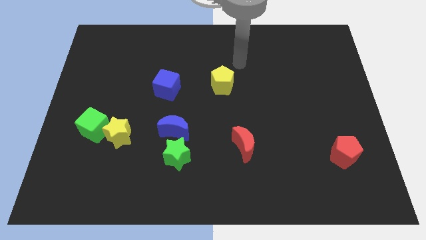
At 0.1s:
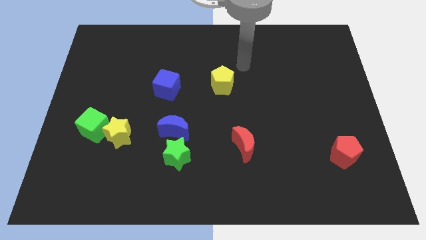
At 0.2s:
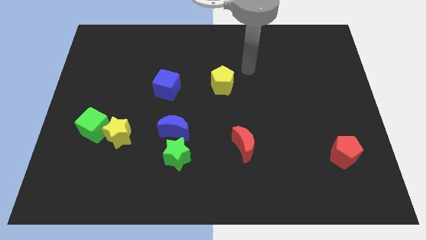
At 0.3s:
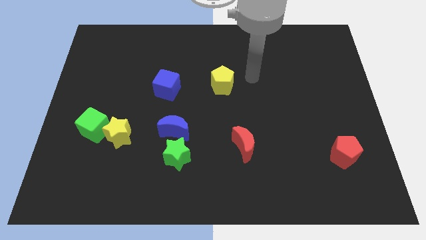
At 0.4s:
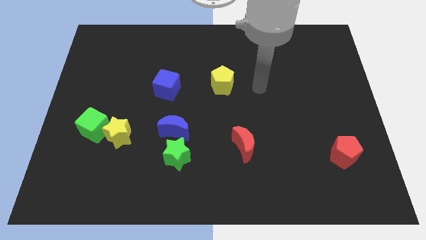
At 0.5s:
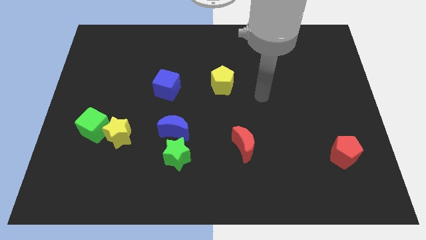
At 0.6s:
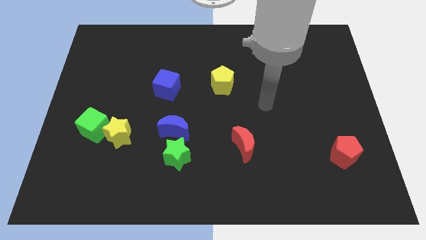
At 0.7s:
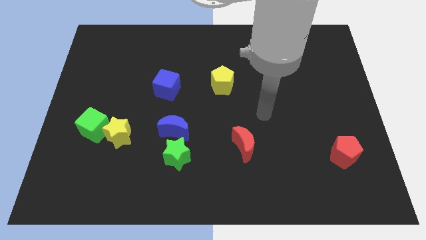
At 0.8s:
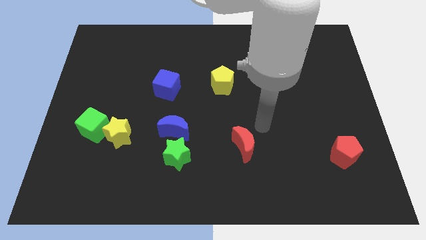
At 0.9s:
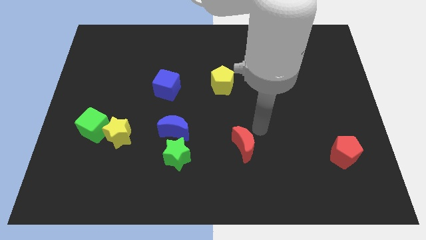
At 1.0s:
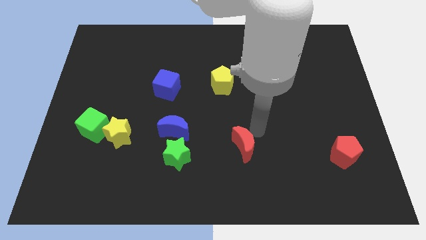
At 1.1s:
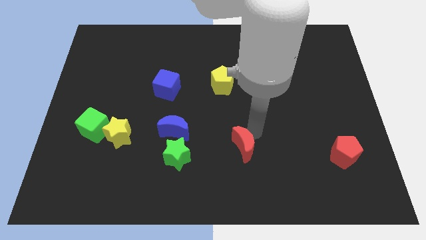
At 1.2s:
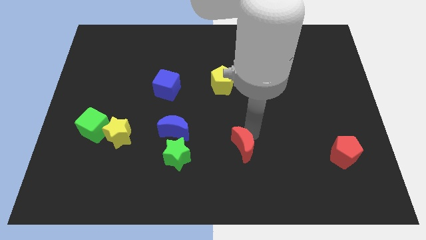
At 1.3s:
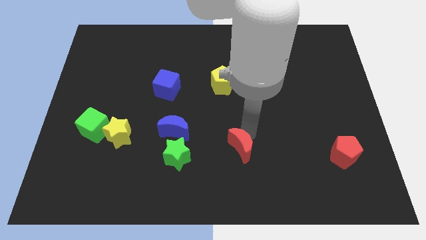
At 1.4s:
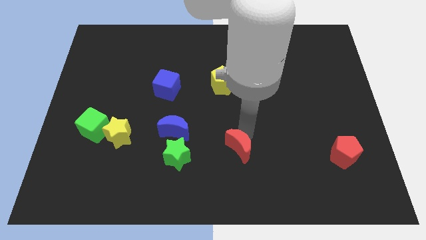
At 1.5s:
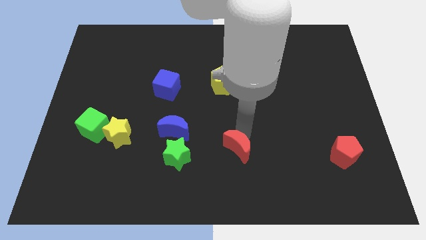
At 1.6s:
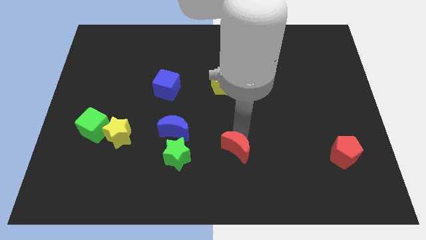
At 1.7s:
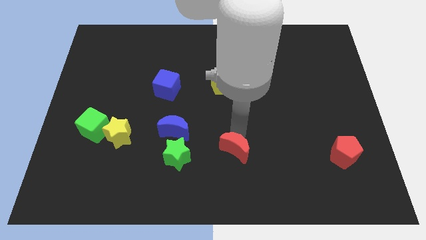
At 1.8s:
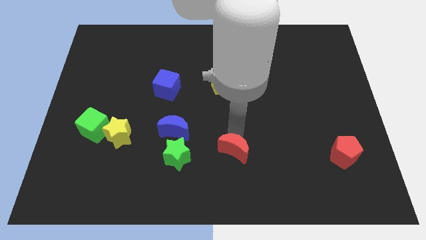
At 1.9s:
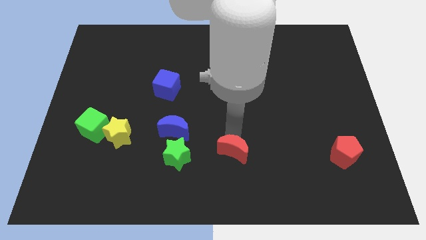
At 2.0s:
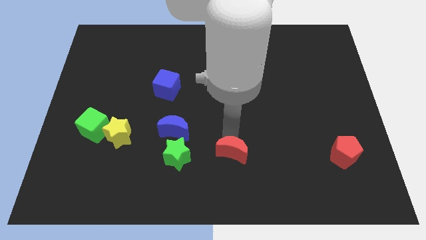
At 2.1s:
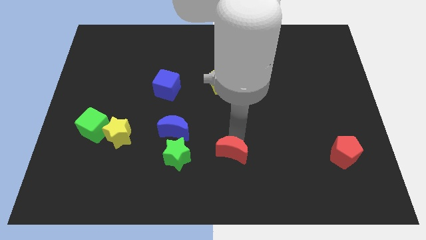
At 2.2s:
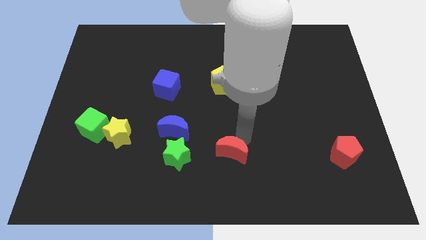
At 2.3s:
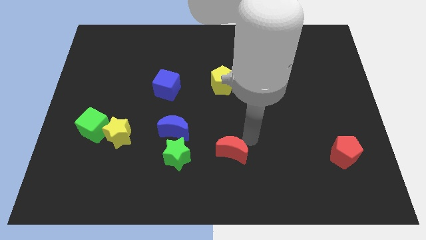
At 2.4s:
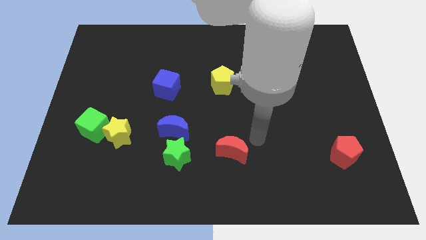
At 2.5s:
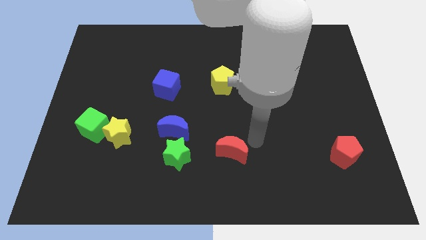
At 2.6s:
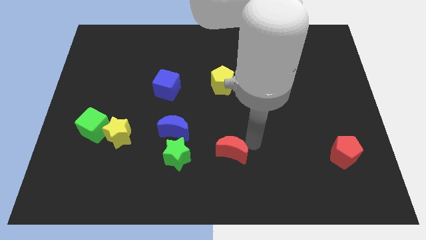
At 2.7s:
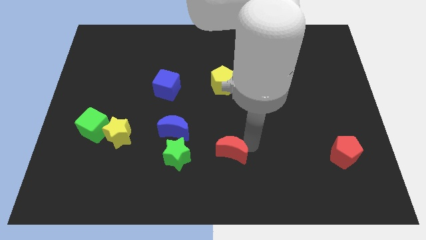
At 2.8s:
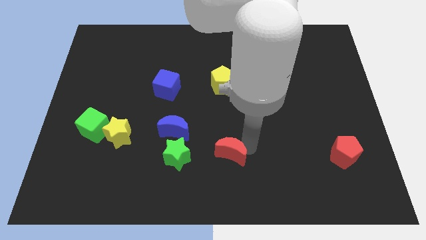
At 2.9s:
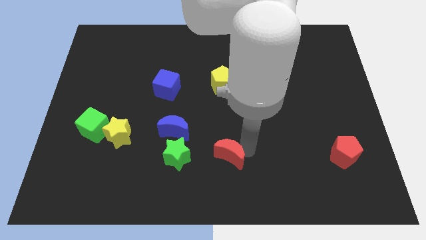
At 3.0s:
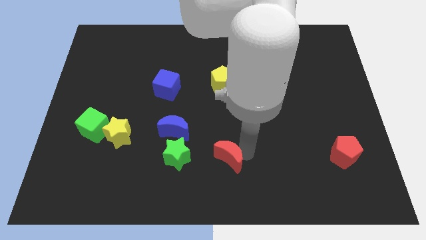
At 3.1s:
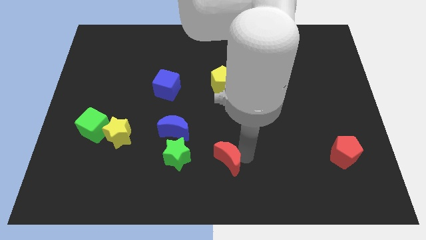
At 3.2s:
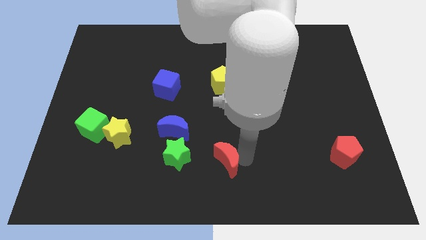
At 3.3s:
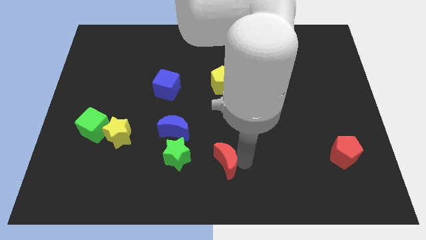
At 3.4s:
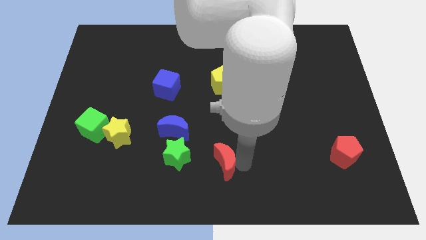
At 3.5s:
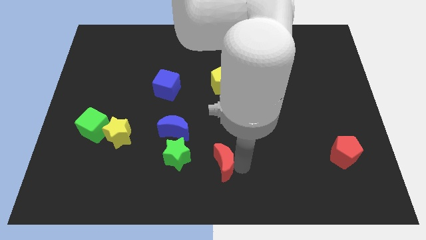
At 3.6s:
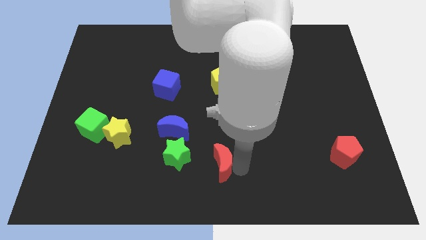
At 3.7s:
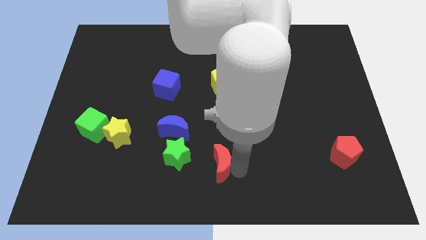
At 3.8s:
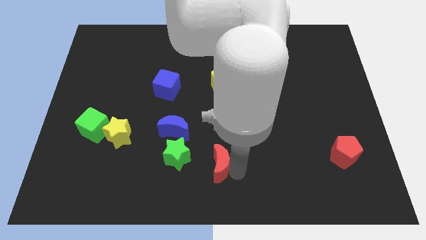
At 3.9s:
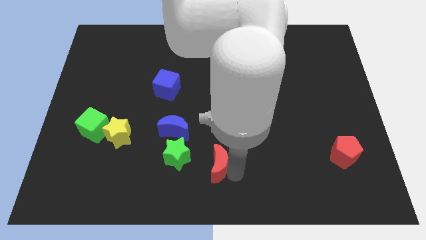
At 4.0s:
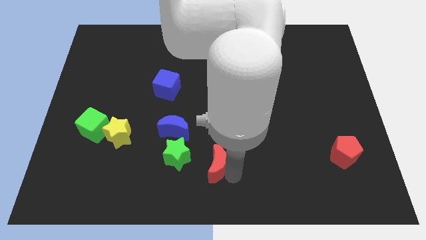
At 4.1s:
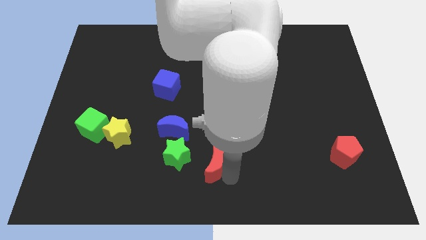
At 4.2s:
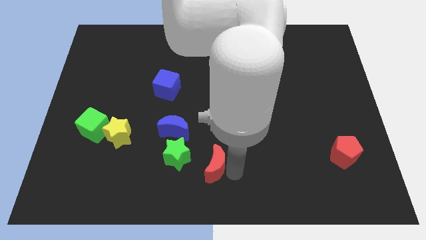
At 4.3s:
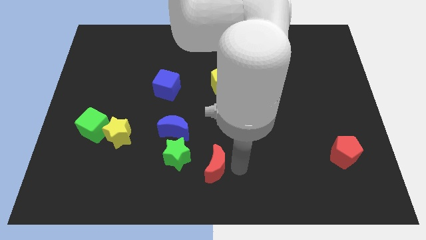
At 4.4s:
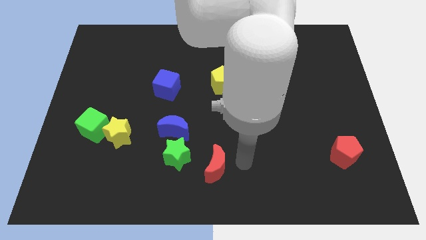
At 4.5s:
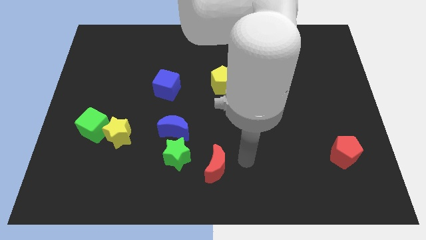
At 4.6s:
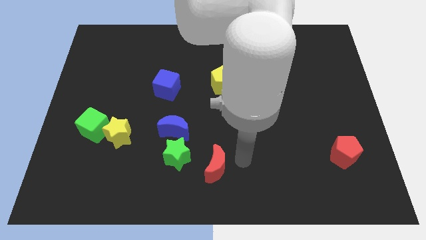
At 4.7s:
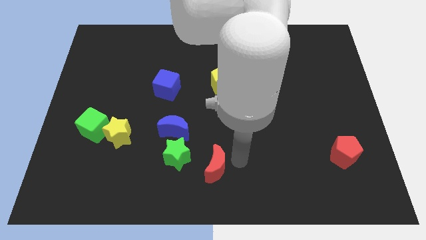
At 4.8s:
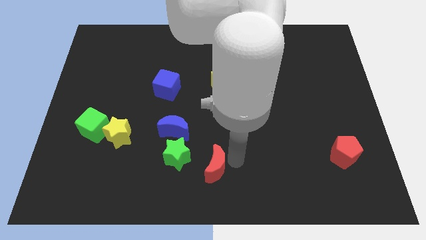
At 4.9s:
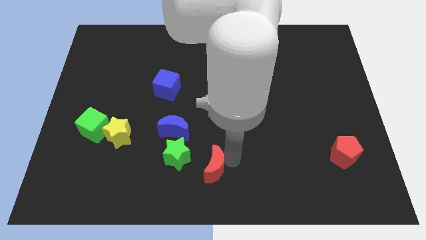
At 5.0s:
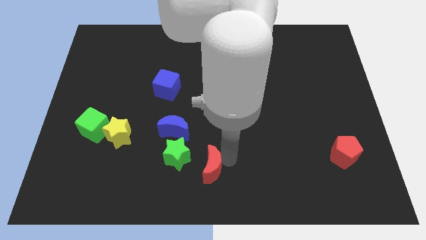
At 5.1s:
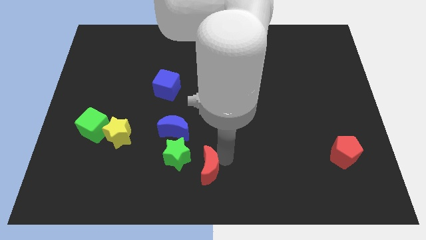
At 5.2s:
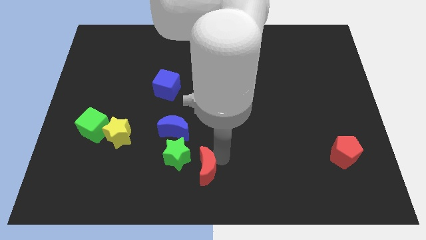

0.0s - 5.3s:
push the red moon left somewhat

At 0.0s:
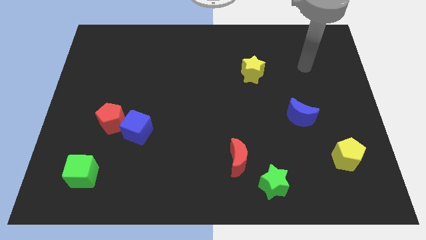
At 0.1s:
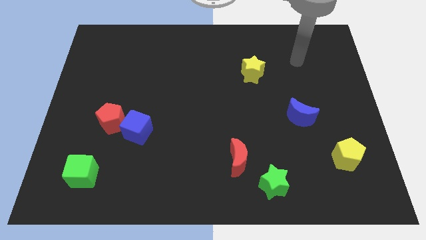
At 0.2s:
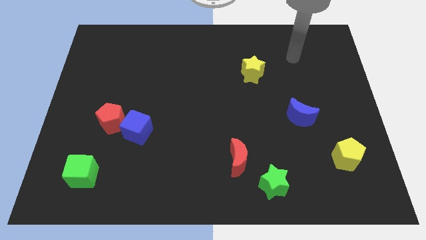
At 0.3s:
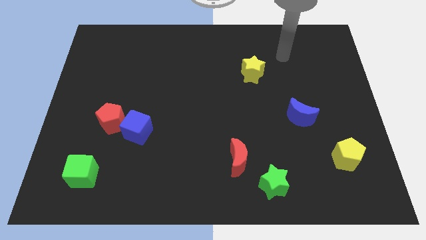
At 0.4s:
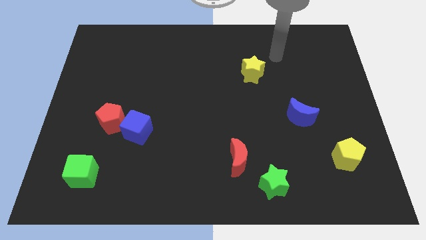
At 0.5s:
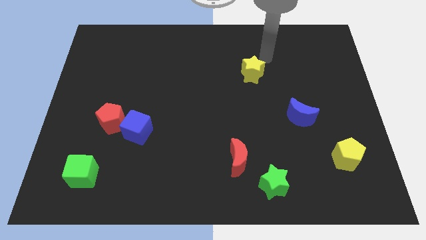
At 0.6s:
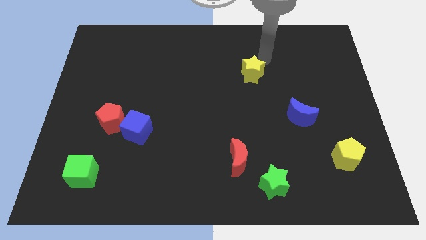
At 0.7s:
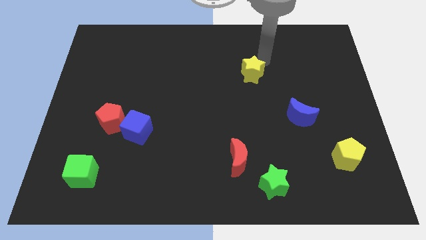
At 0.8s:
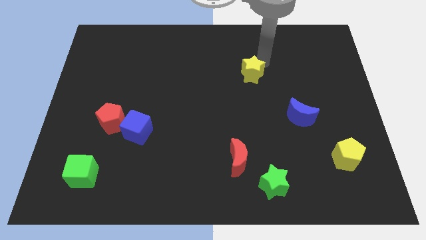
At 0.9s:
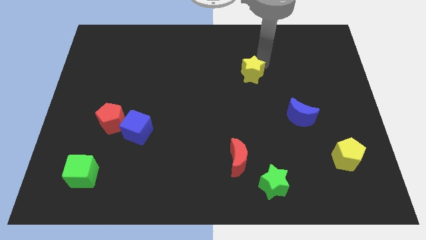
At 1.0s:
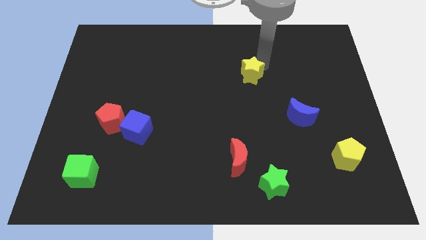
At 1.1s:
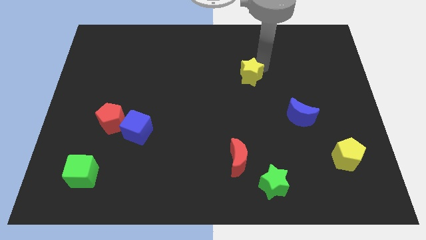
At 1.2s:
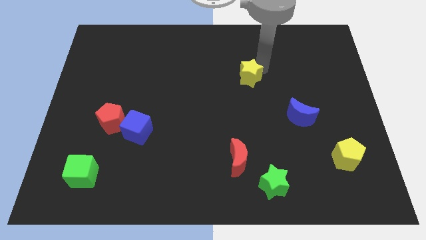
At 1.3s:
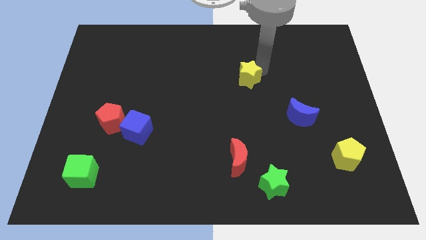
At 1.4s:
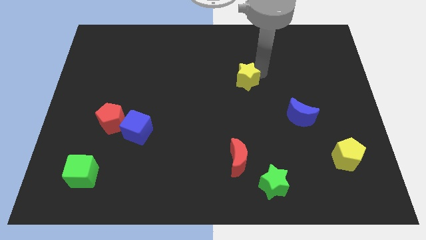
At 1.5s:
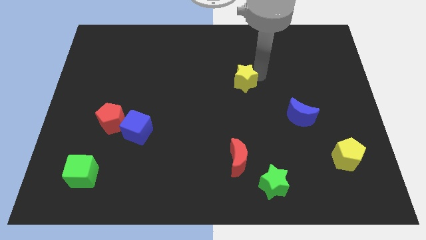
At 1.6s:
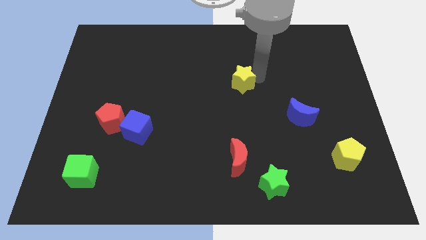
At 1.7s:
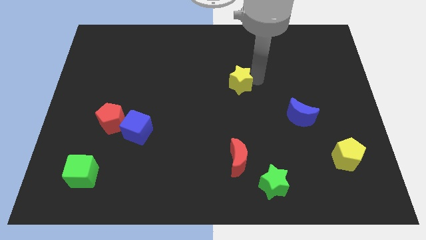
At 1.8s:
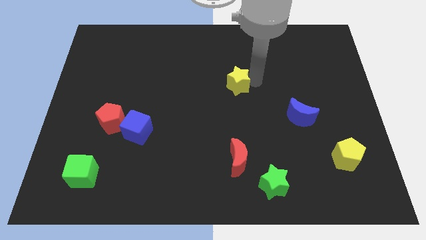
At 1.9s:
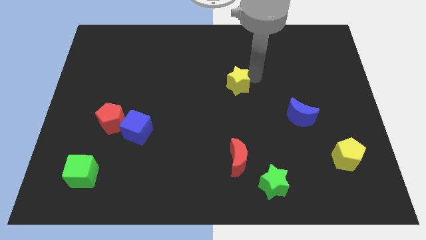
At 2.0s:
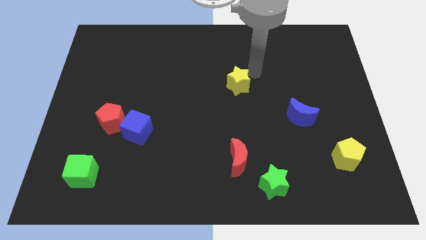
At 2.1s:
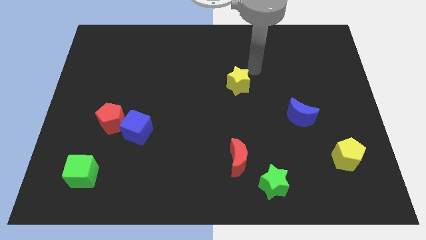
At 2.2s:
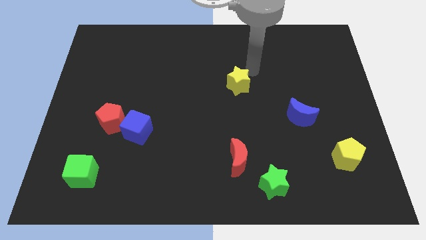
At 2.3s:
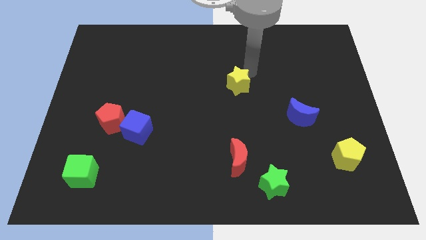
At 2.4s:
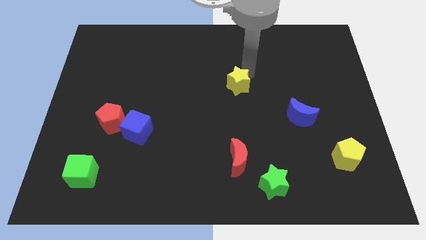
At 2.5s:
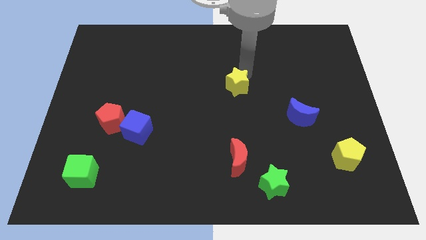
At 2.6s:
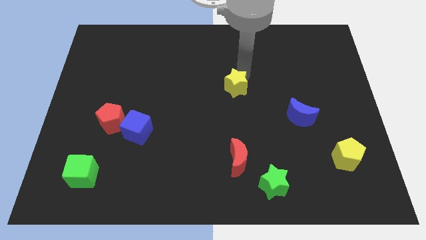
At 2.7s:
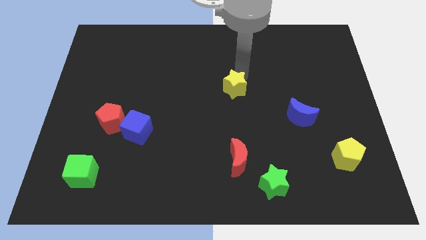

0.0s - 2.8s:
slide the yellow star a bit down and to the left diagonally
